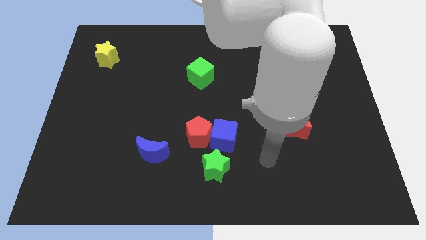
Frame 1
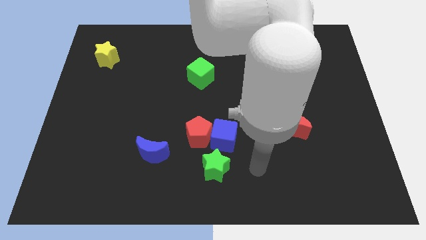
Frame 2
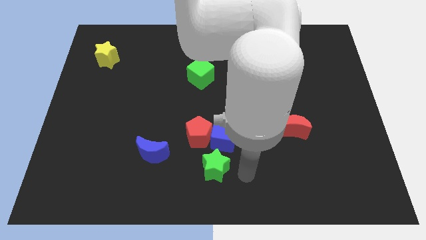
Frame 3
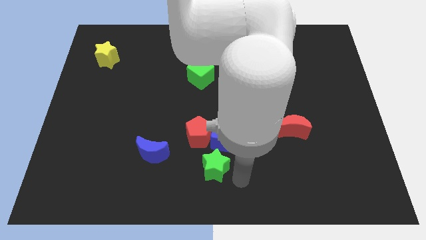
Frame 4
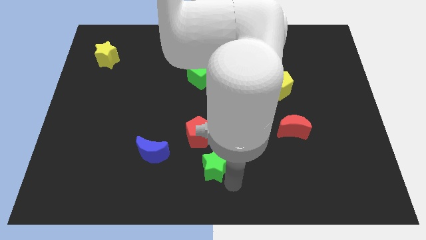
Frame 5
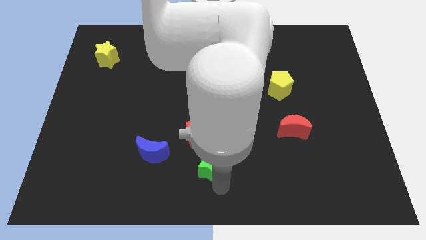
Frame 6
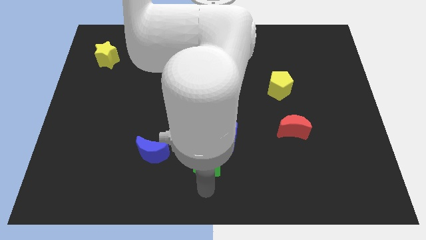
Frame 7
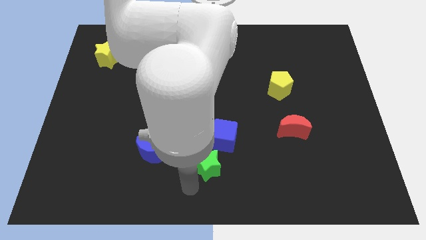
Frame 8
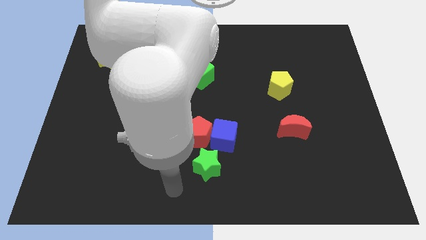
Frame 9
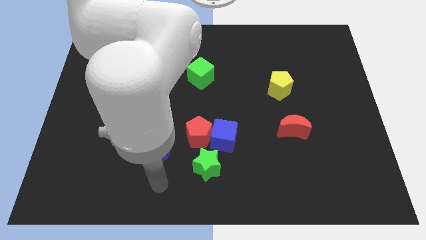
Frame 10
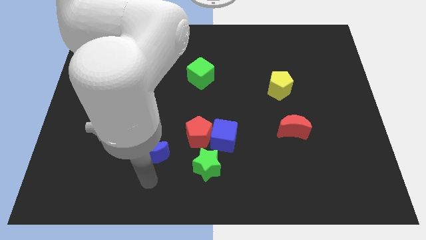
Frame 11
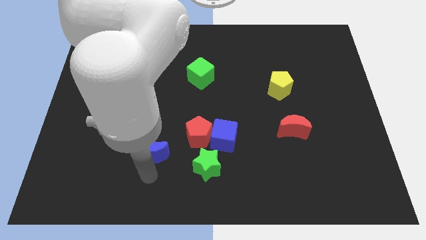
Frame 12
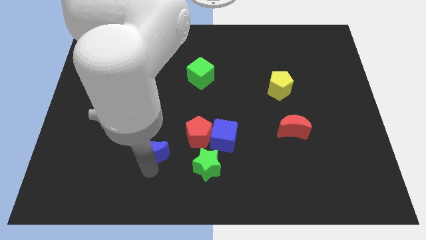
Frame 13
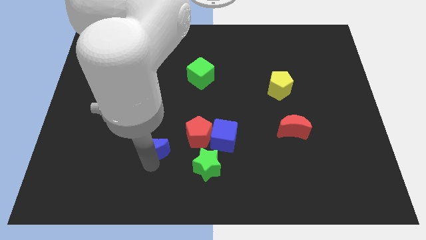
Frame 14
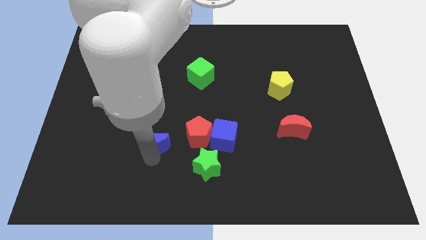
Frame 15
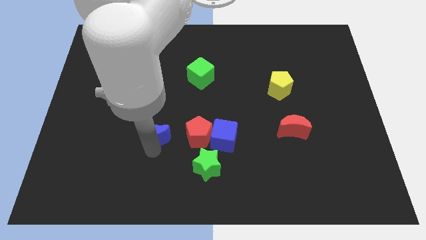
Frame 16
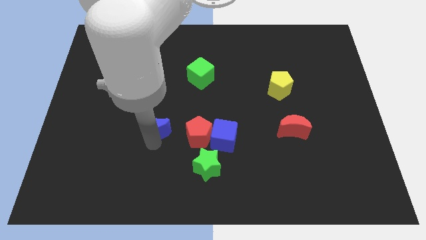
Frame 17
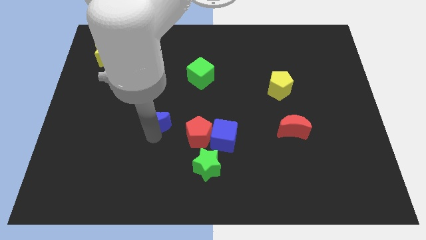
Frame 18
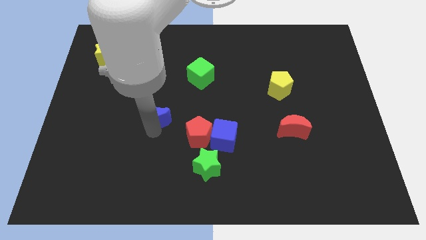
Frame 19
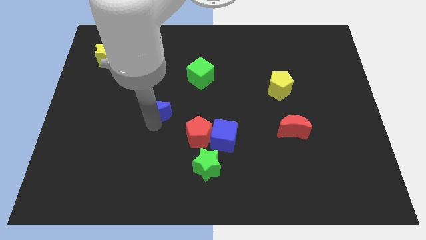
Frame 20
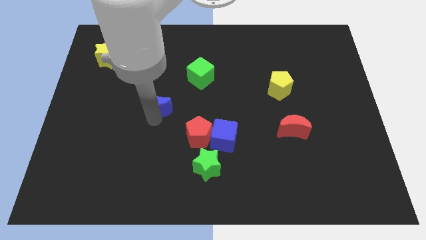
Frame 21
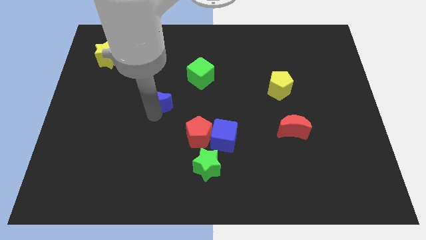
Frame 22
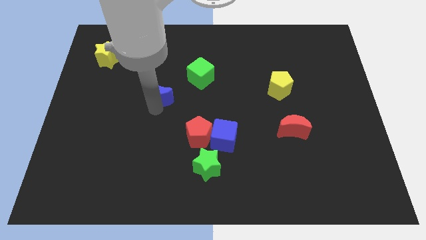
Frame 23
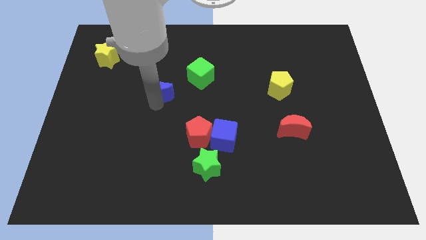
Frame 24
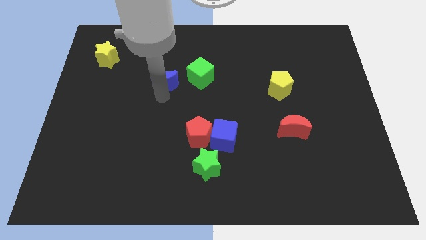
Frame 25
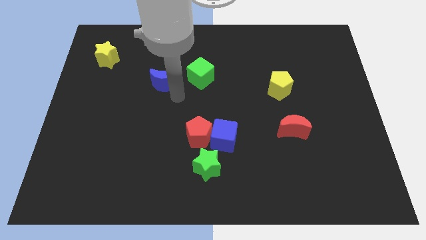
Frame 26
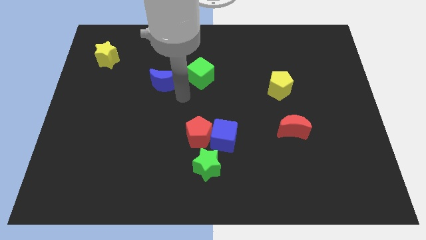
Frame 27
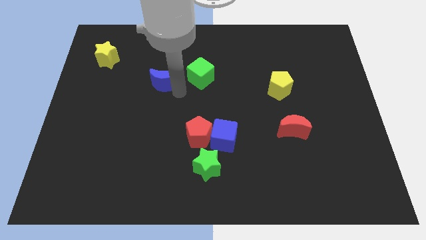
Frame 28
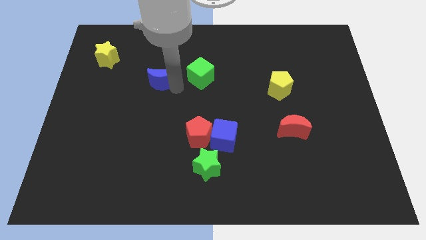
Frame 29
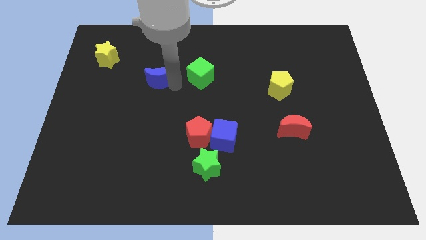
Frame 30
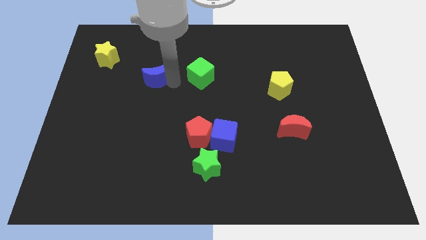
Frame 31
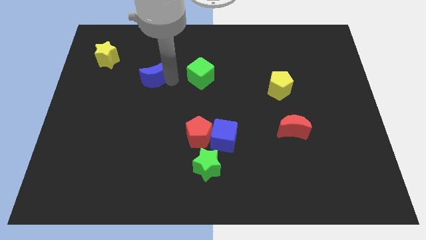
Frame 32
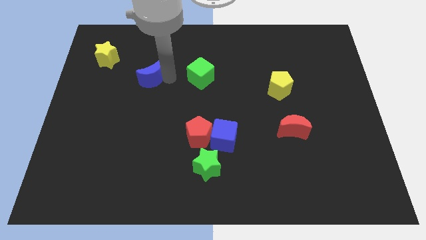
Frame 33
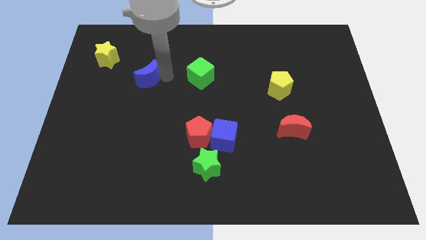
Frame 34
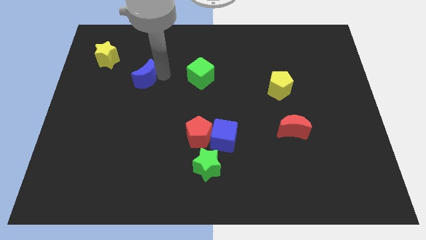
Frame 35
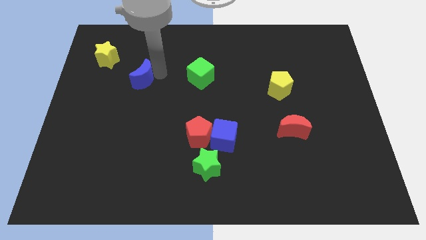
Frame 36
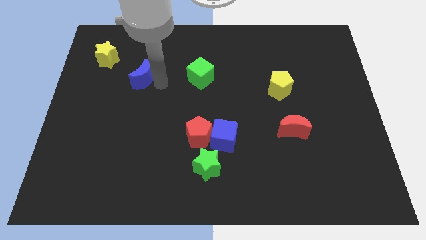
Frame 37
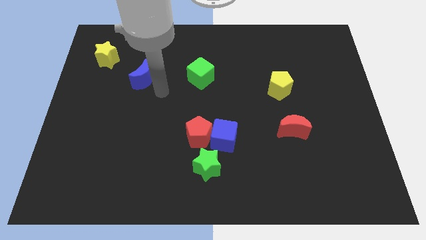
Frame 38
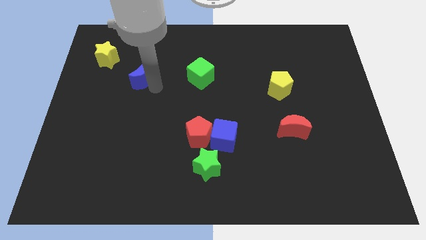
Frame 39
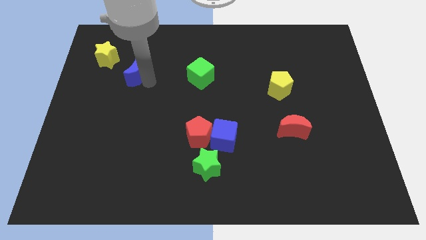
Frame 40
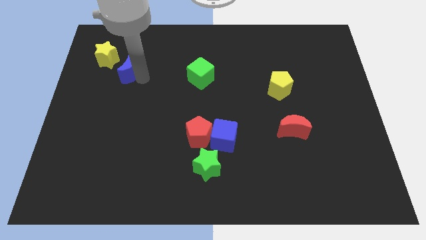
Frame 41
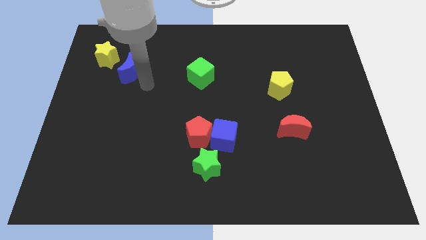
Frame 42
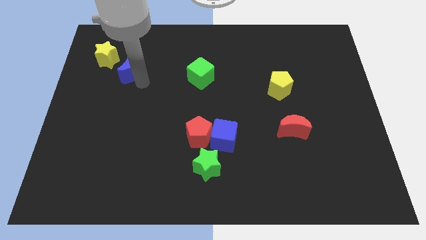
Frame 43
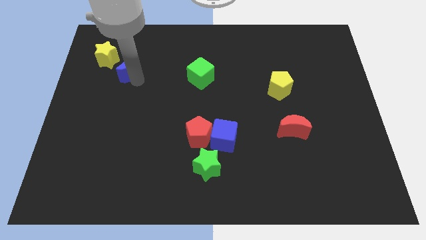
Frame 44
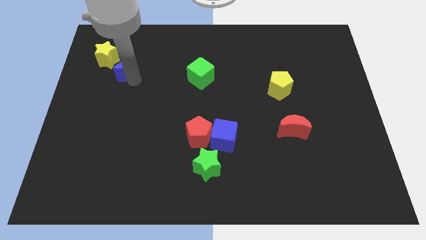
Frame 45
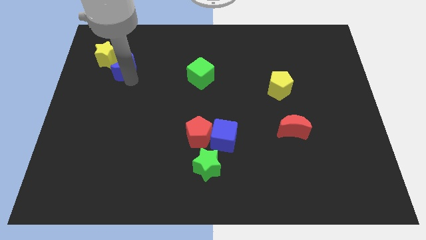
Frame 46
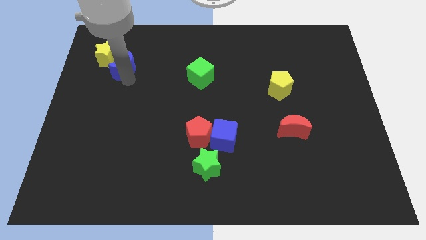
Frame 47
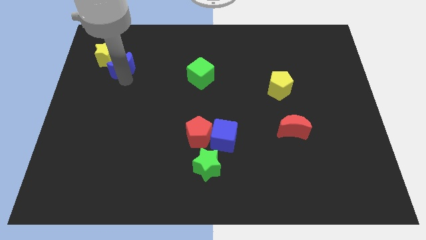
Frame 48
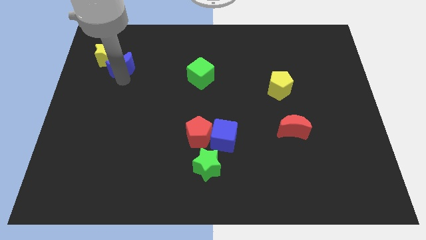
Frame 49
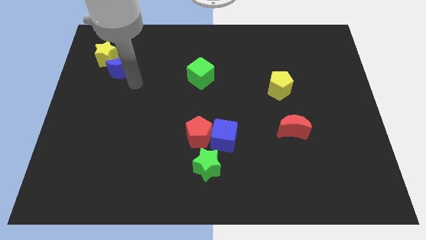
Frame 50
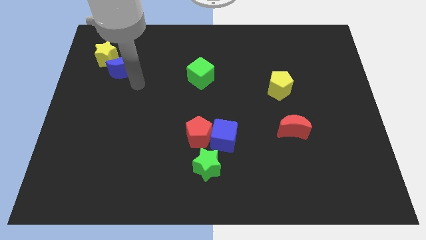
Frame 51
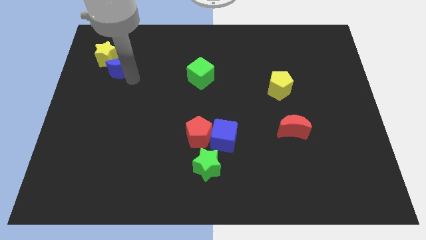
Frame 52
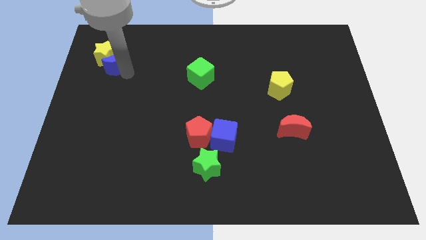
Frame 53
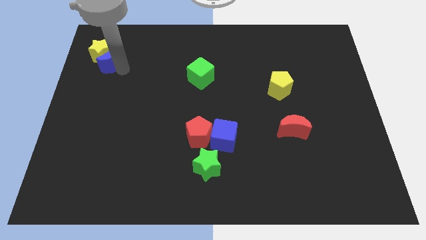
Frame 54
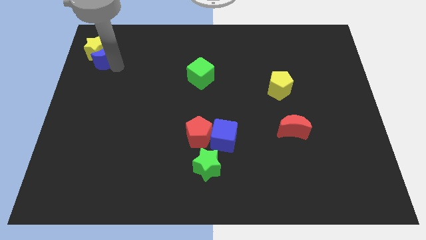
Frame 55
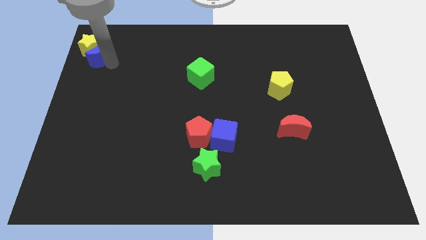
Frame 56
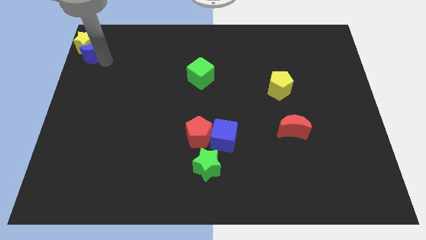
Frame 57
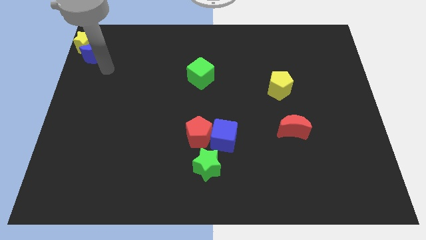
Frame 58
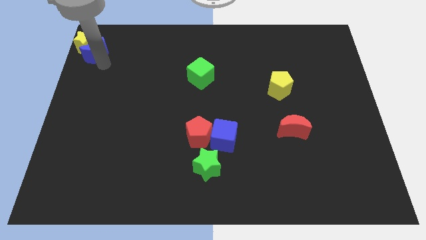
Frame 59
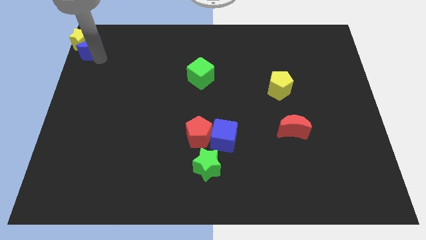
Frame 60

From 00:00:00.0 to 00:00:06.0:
slide the blue moon to the top left

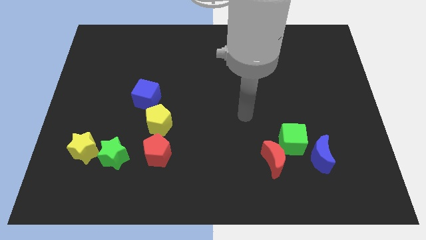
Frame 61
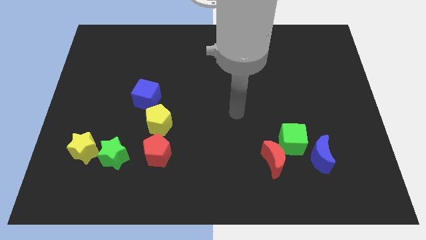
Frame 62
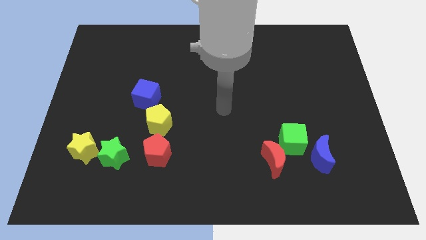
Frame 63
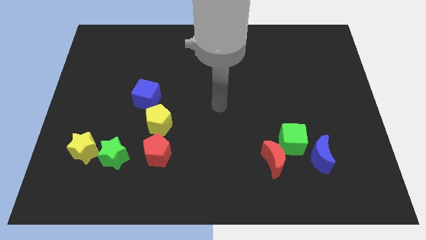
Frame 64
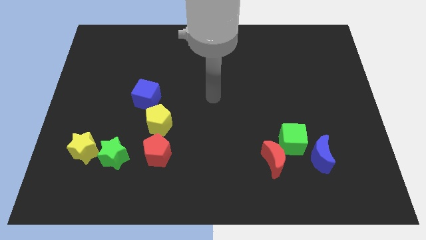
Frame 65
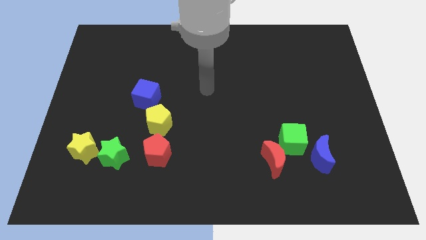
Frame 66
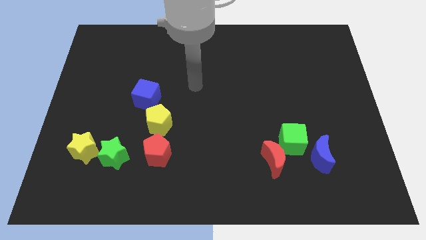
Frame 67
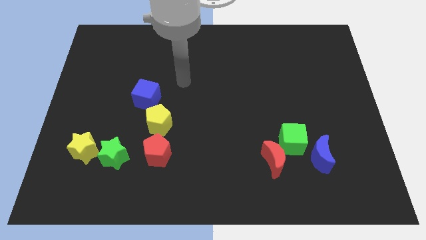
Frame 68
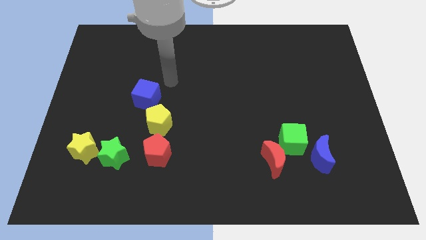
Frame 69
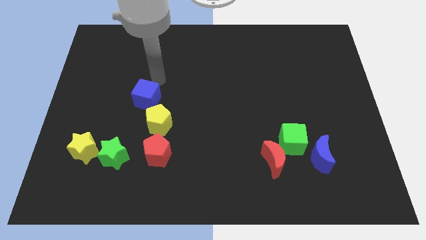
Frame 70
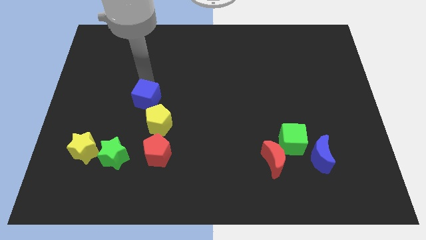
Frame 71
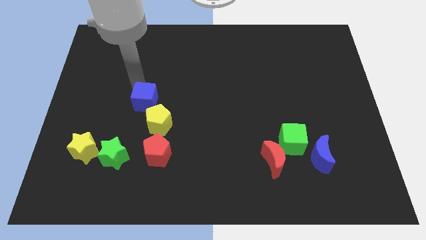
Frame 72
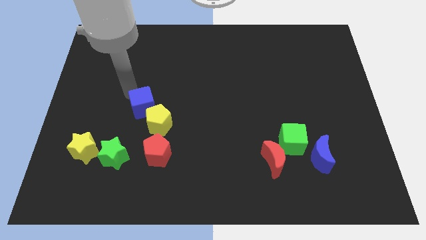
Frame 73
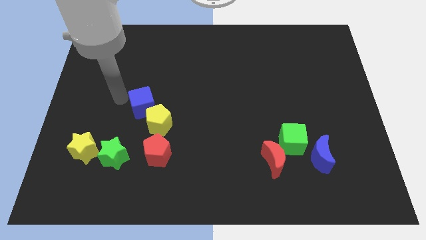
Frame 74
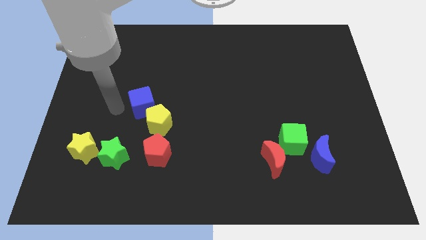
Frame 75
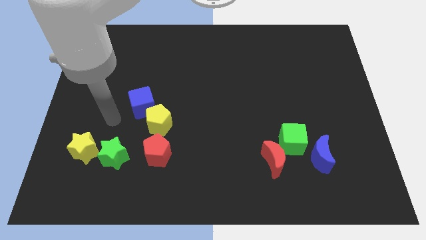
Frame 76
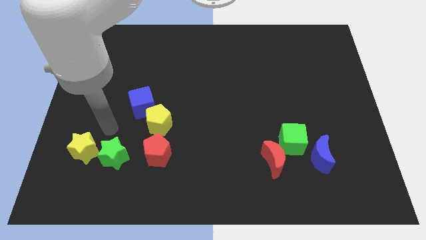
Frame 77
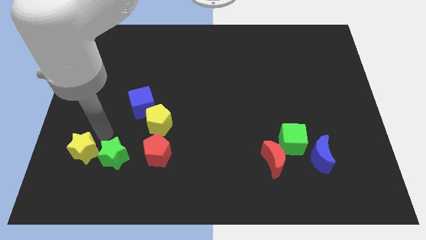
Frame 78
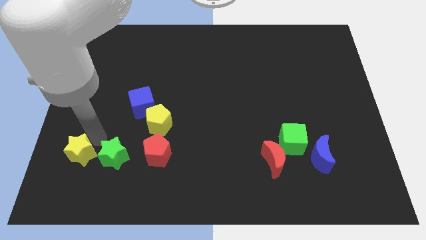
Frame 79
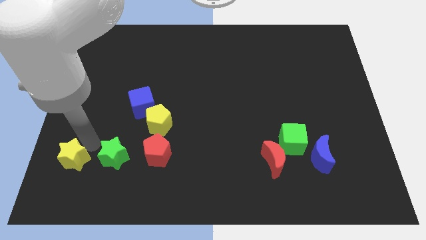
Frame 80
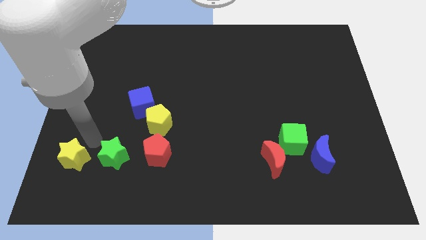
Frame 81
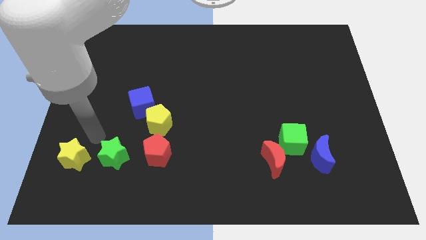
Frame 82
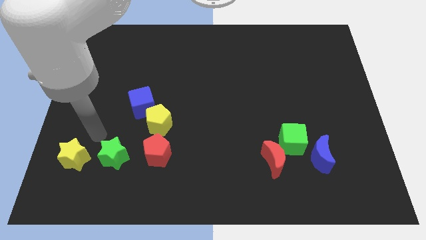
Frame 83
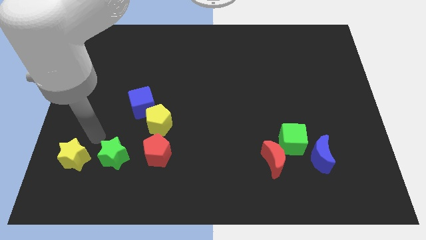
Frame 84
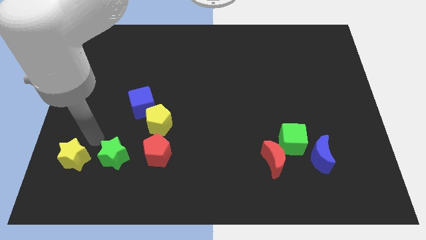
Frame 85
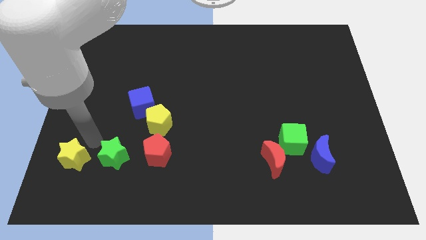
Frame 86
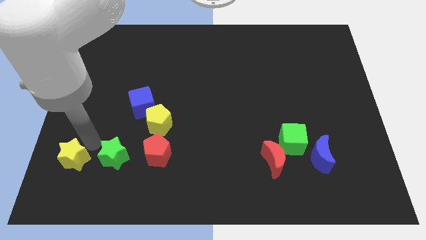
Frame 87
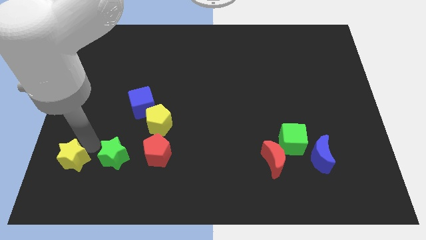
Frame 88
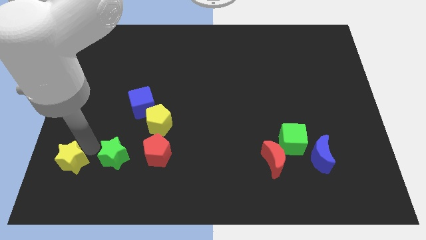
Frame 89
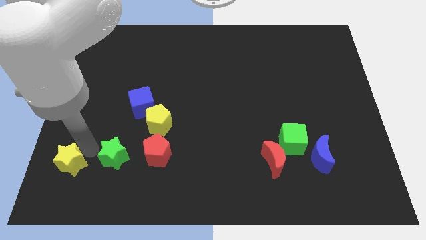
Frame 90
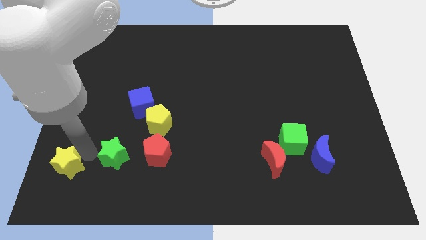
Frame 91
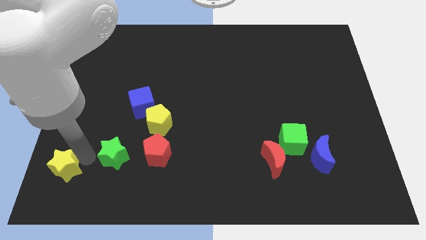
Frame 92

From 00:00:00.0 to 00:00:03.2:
slide the yellow star to the lower left corner
